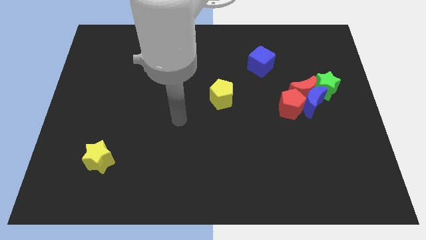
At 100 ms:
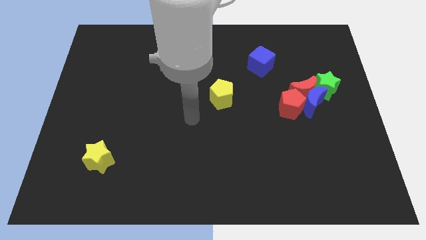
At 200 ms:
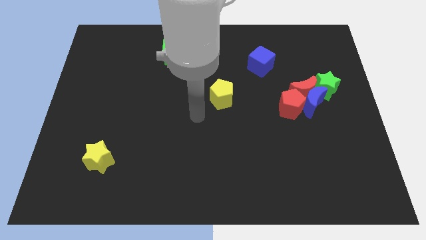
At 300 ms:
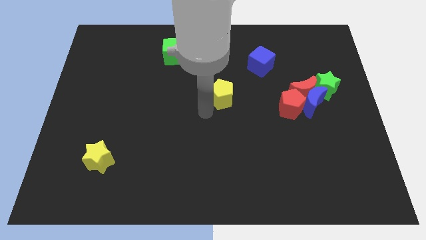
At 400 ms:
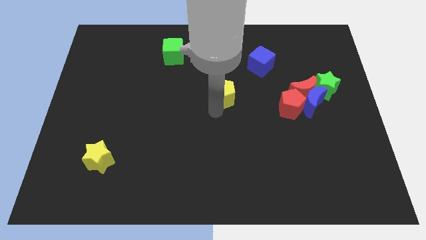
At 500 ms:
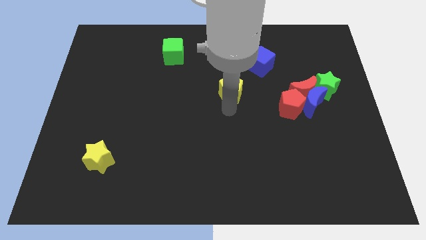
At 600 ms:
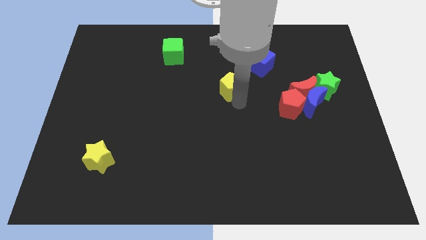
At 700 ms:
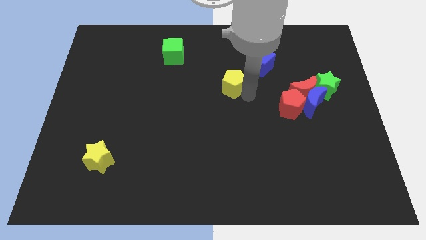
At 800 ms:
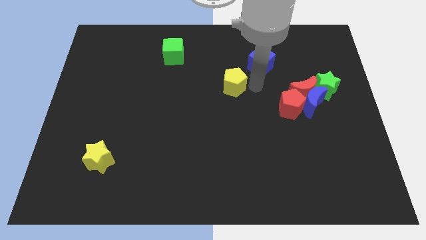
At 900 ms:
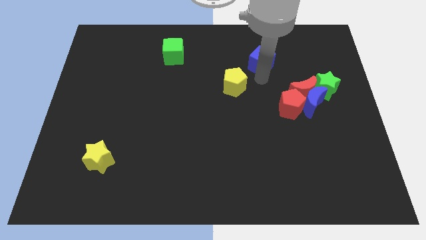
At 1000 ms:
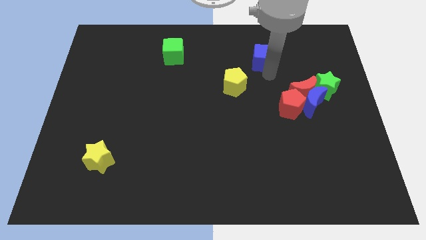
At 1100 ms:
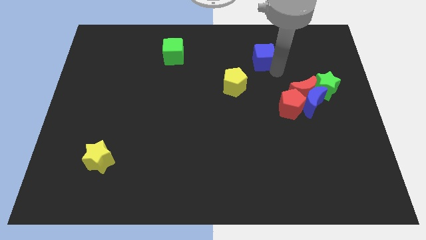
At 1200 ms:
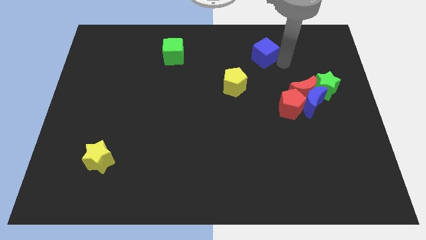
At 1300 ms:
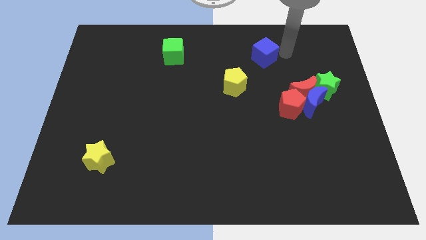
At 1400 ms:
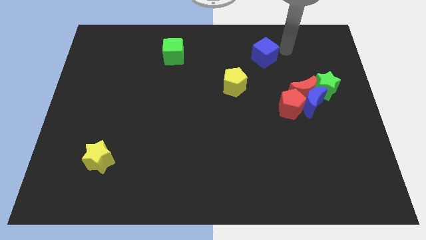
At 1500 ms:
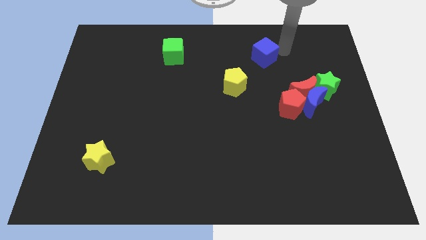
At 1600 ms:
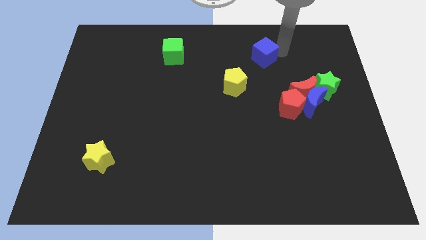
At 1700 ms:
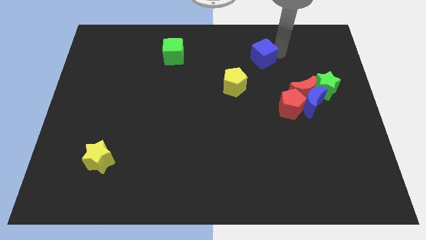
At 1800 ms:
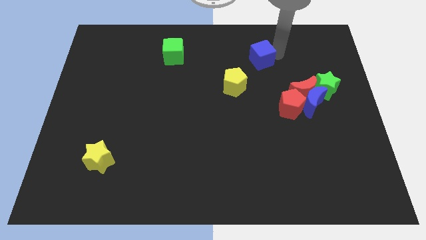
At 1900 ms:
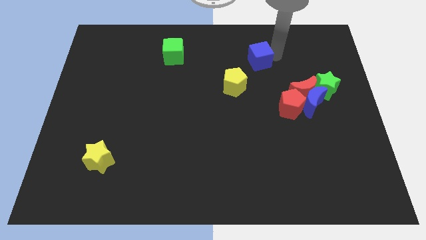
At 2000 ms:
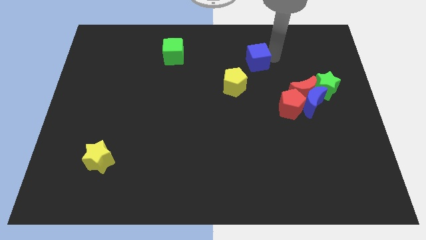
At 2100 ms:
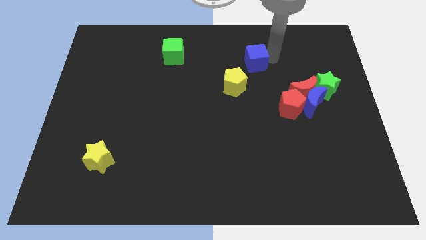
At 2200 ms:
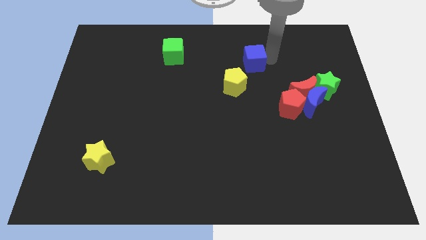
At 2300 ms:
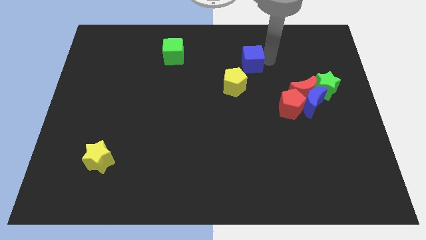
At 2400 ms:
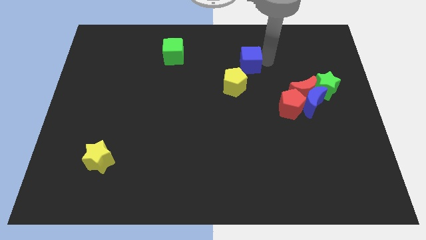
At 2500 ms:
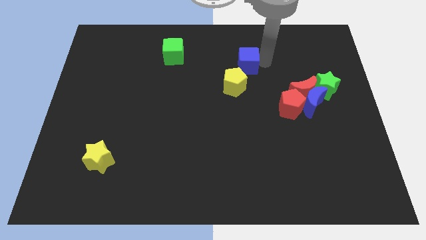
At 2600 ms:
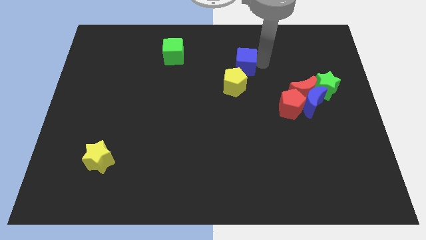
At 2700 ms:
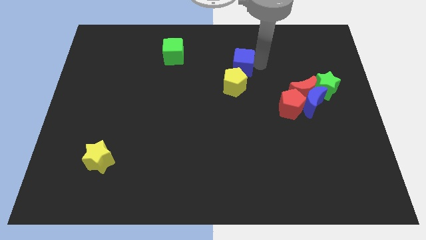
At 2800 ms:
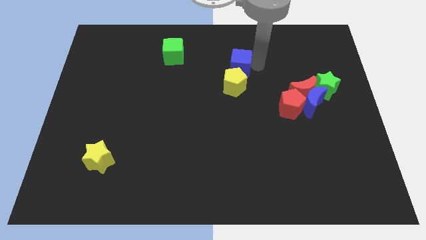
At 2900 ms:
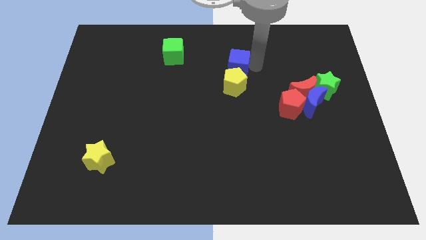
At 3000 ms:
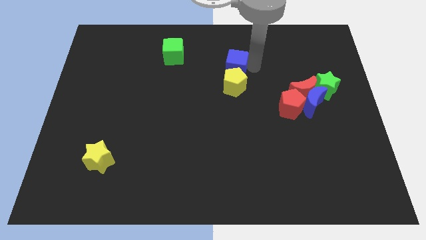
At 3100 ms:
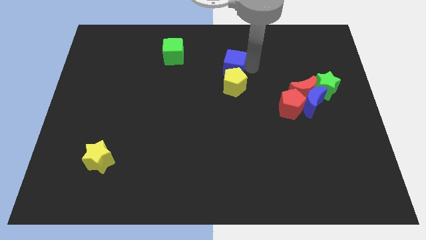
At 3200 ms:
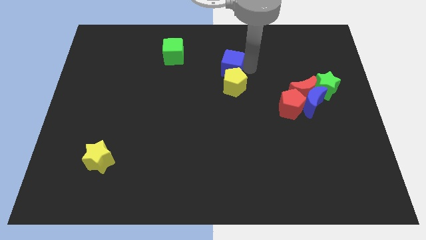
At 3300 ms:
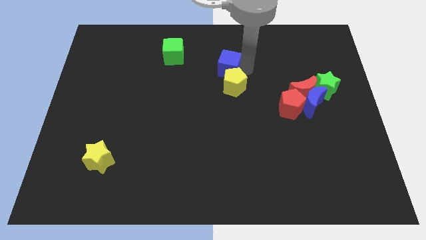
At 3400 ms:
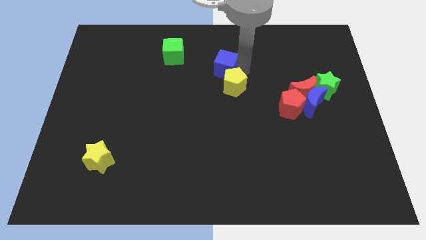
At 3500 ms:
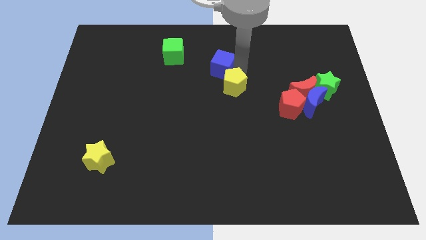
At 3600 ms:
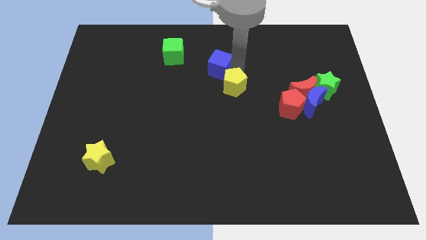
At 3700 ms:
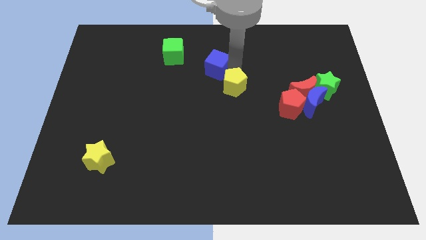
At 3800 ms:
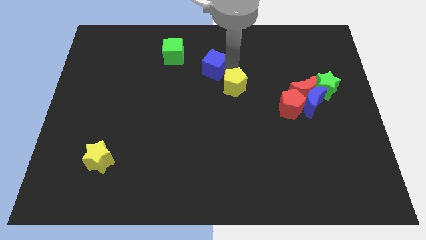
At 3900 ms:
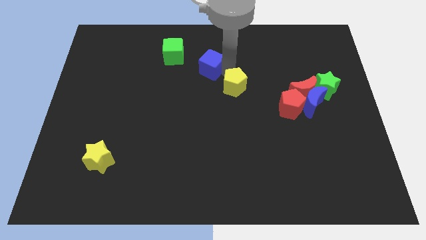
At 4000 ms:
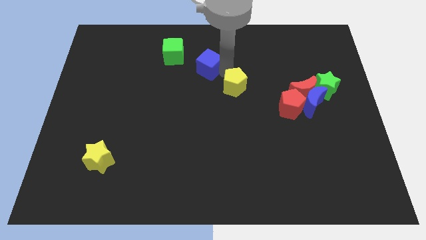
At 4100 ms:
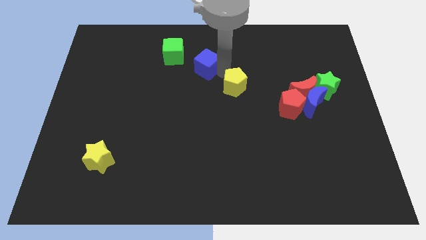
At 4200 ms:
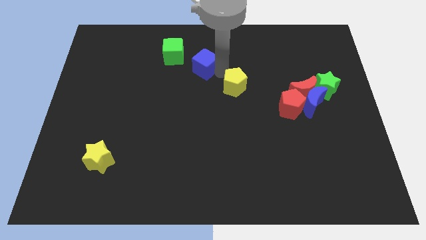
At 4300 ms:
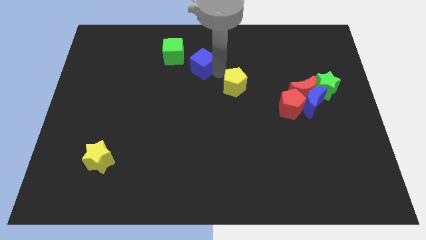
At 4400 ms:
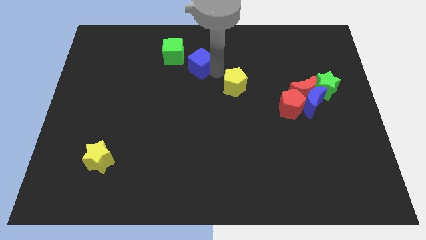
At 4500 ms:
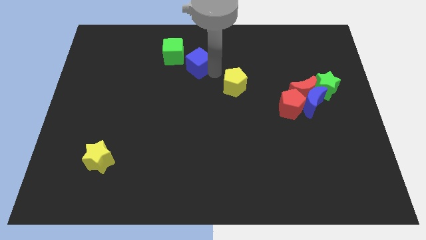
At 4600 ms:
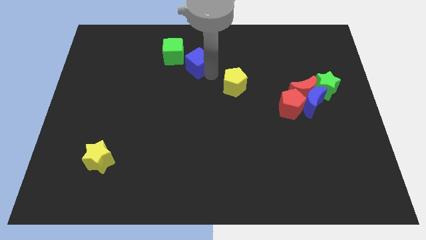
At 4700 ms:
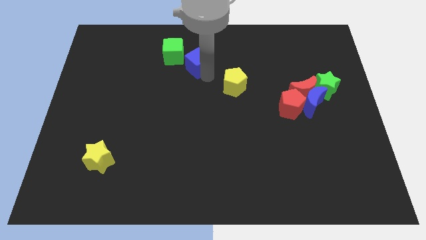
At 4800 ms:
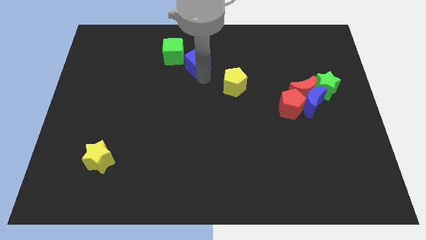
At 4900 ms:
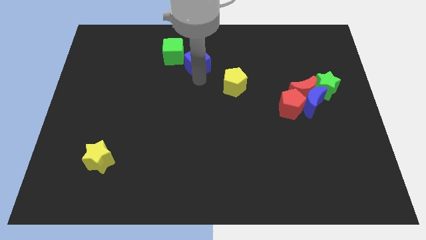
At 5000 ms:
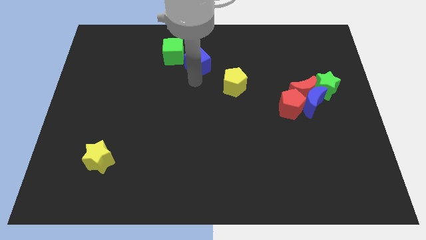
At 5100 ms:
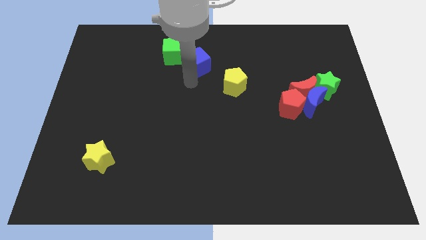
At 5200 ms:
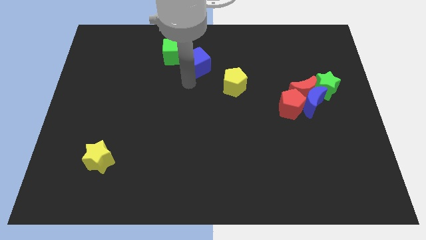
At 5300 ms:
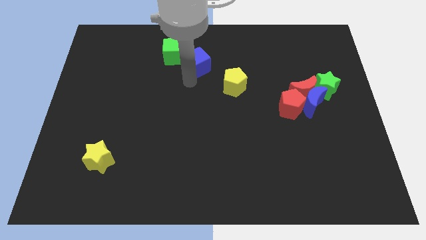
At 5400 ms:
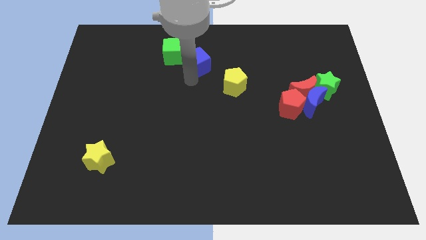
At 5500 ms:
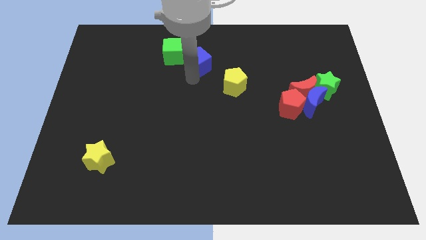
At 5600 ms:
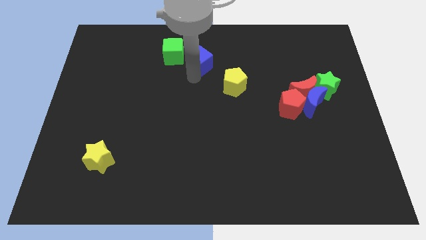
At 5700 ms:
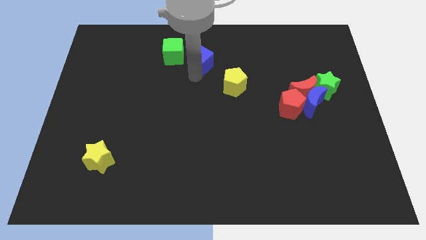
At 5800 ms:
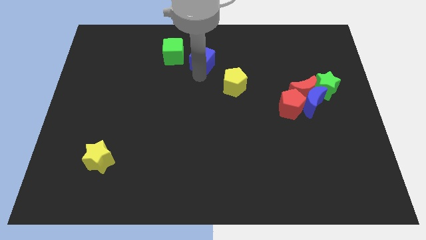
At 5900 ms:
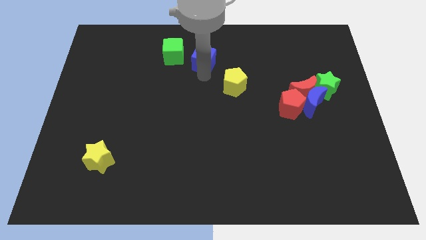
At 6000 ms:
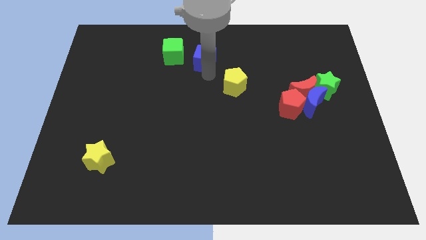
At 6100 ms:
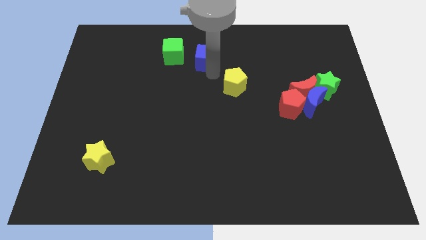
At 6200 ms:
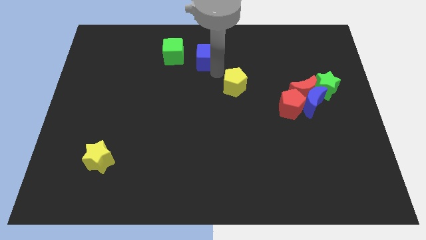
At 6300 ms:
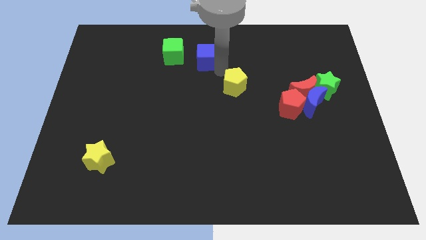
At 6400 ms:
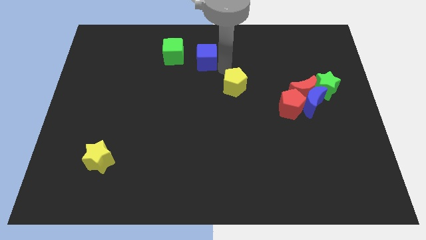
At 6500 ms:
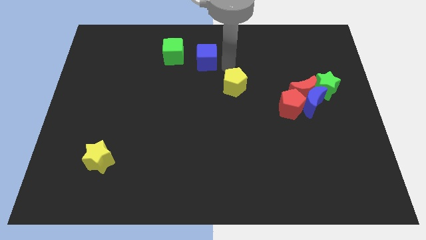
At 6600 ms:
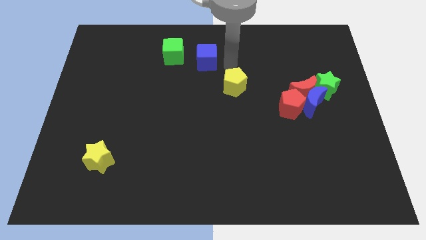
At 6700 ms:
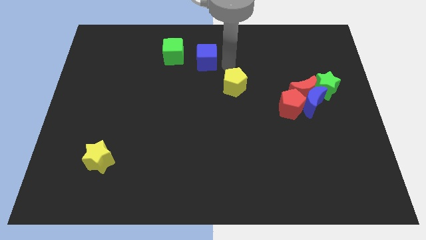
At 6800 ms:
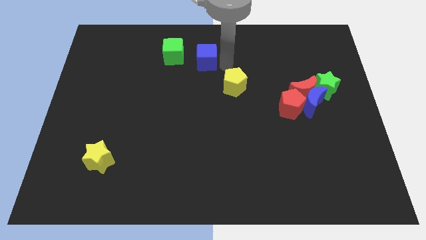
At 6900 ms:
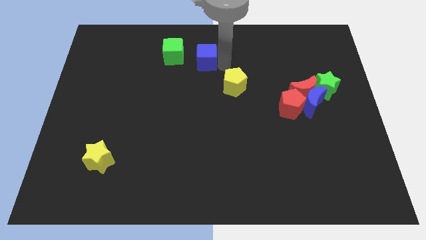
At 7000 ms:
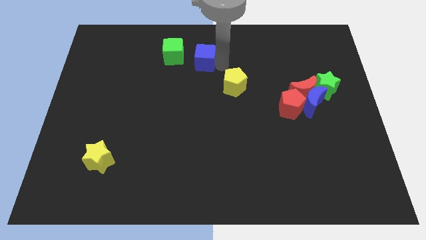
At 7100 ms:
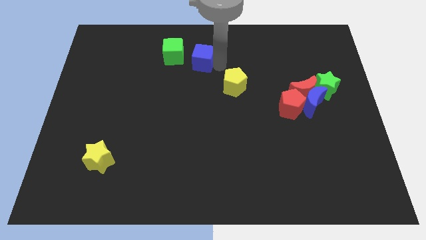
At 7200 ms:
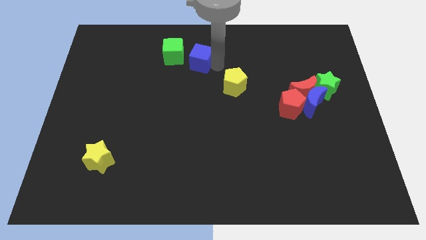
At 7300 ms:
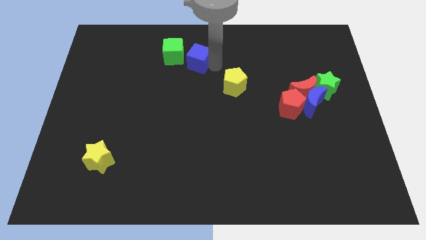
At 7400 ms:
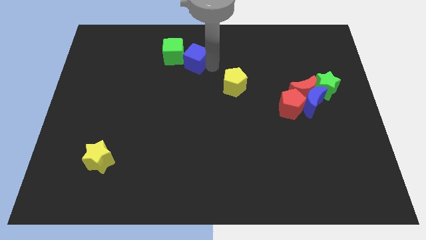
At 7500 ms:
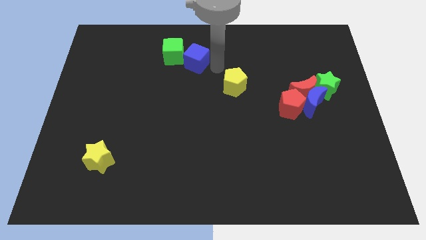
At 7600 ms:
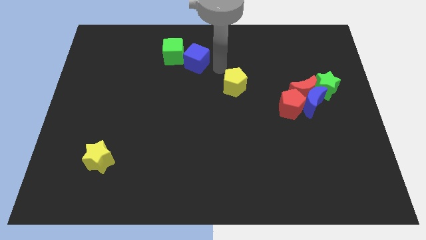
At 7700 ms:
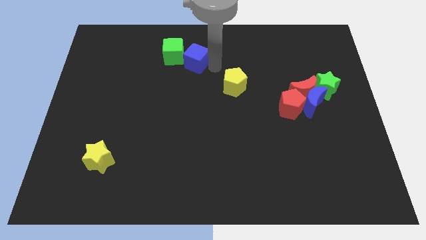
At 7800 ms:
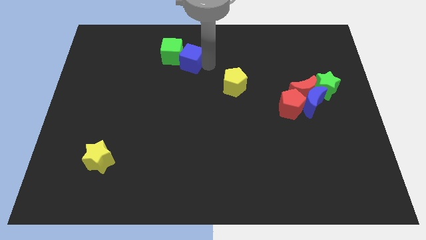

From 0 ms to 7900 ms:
move the blue cube towards the green cube
